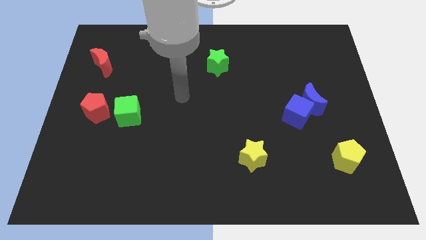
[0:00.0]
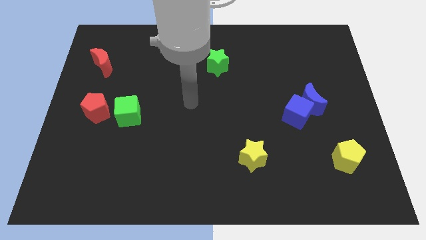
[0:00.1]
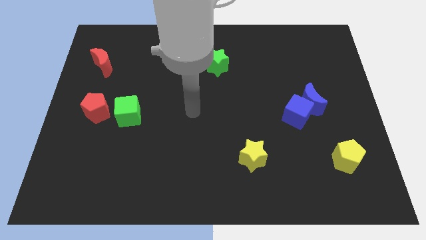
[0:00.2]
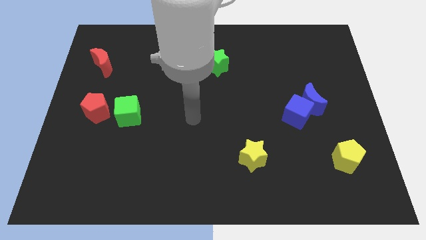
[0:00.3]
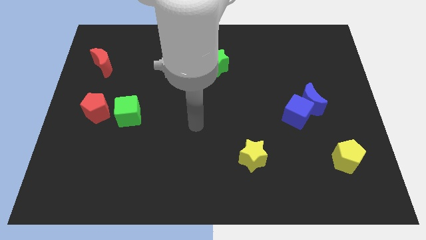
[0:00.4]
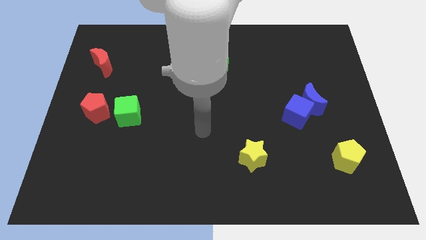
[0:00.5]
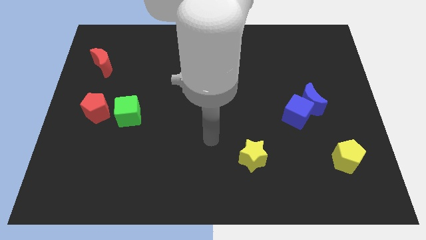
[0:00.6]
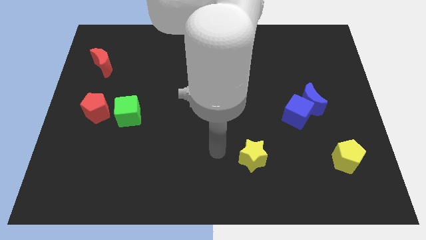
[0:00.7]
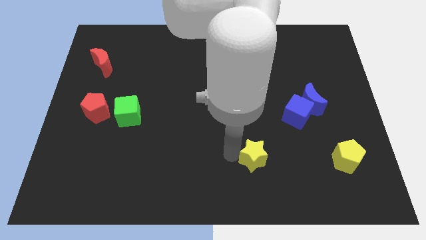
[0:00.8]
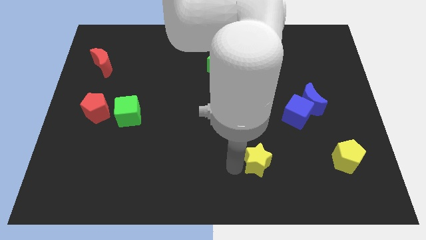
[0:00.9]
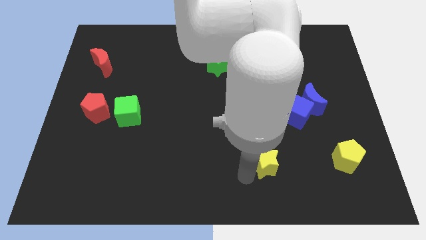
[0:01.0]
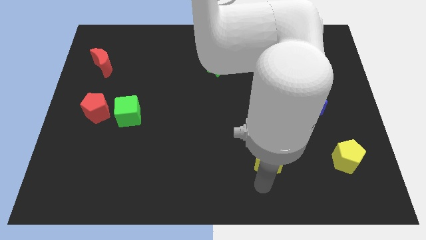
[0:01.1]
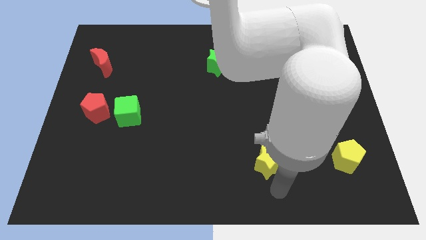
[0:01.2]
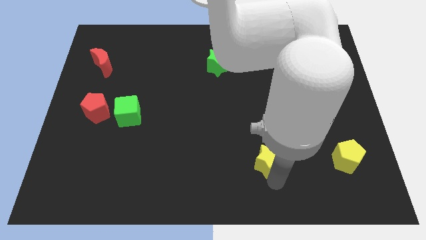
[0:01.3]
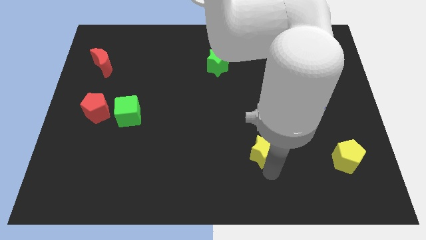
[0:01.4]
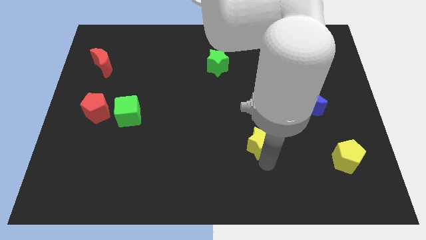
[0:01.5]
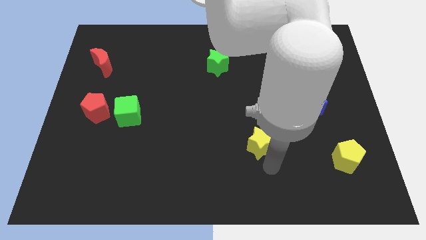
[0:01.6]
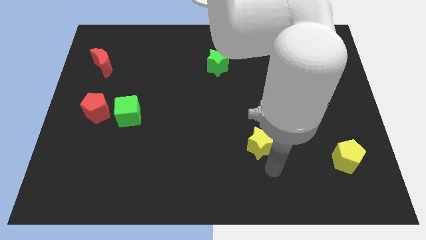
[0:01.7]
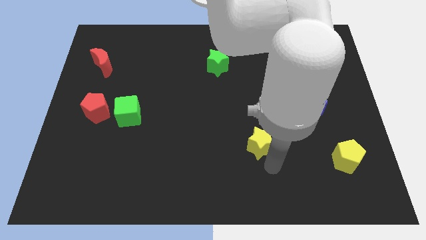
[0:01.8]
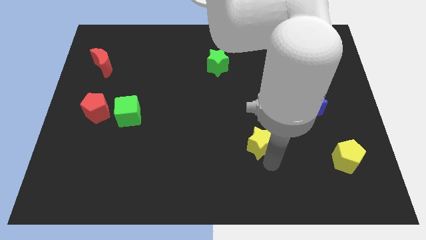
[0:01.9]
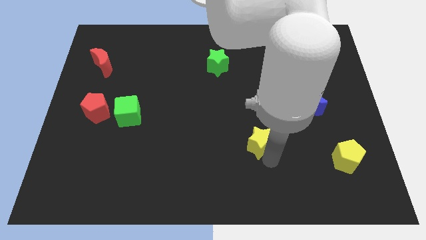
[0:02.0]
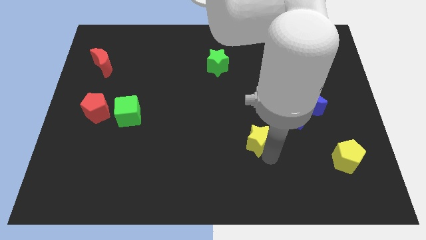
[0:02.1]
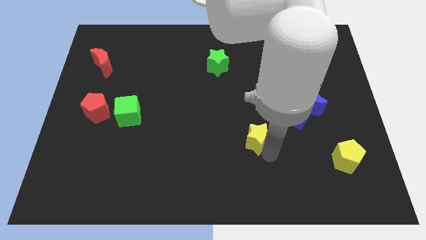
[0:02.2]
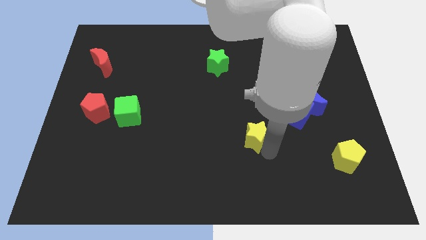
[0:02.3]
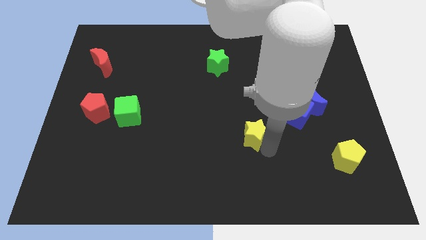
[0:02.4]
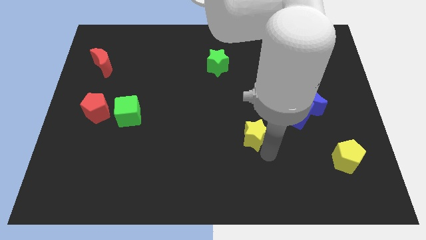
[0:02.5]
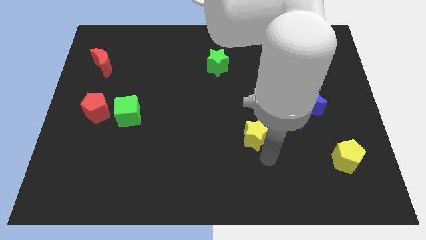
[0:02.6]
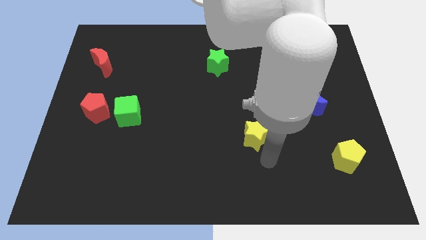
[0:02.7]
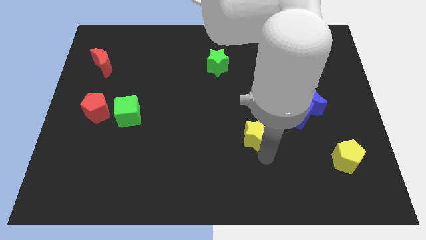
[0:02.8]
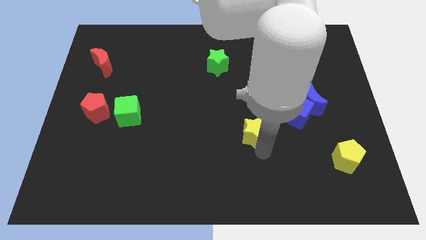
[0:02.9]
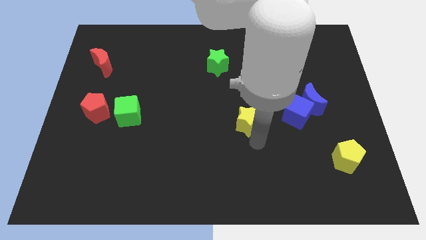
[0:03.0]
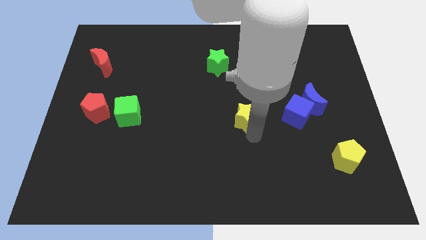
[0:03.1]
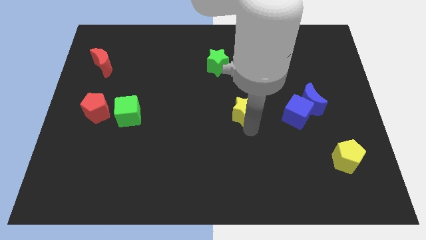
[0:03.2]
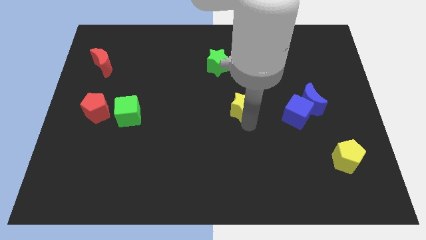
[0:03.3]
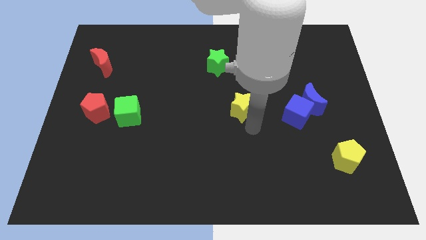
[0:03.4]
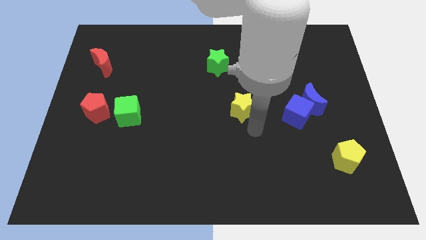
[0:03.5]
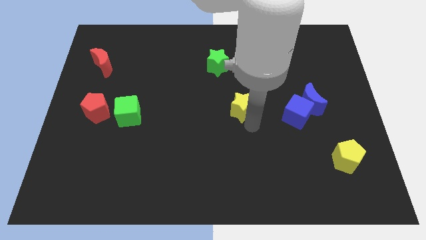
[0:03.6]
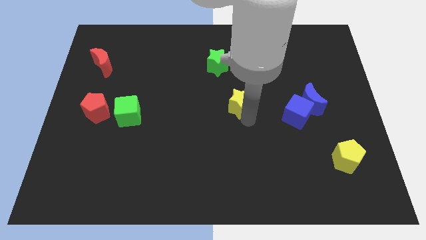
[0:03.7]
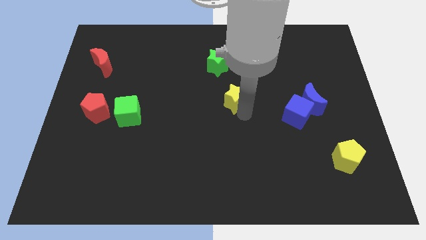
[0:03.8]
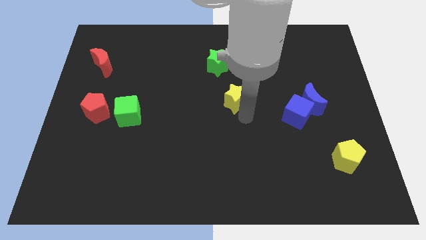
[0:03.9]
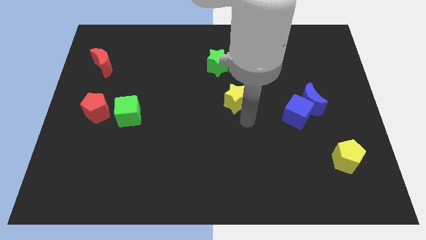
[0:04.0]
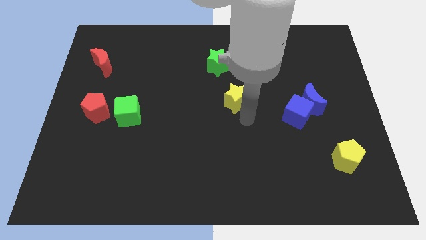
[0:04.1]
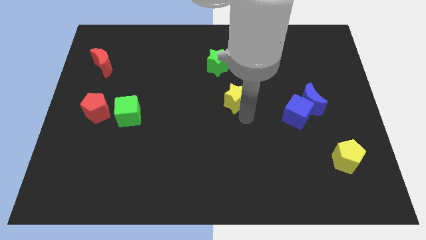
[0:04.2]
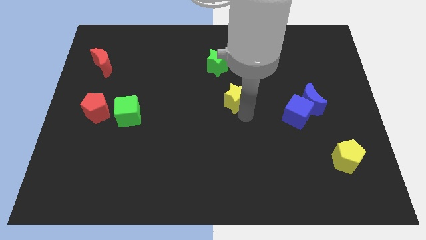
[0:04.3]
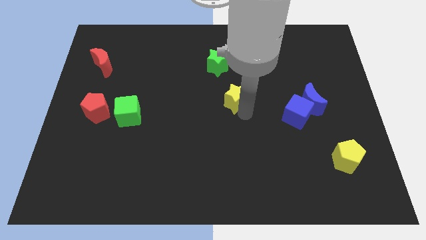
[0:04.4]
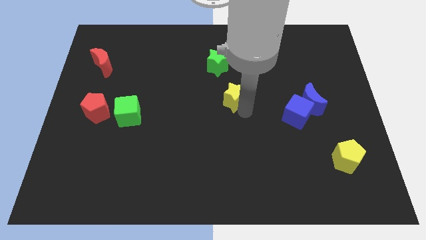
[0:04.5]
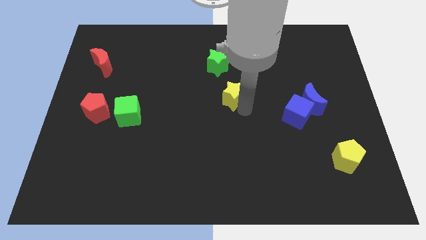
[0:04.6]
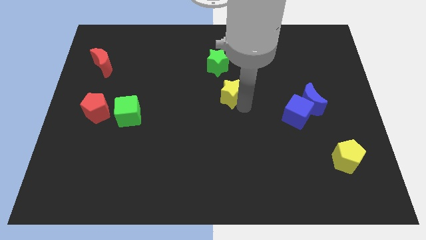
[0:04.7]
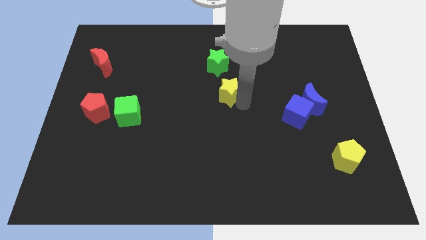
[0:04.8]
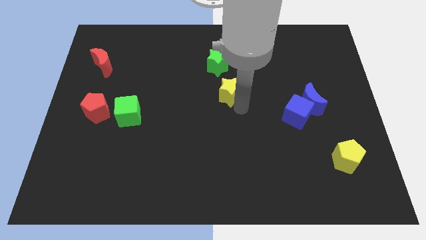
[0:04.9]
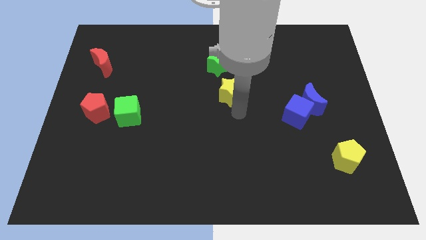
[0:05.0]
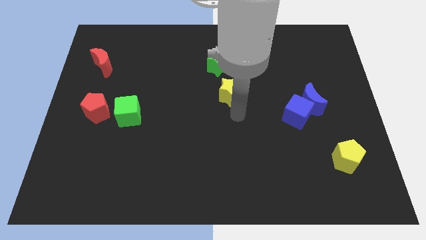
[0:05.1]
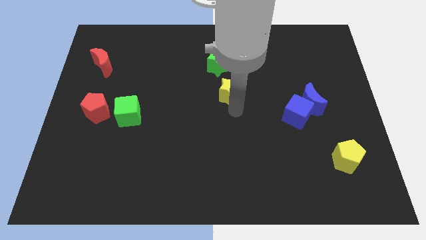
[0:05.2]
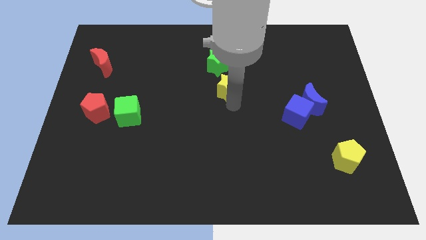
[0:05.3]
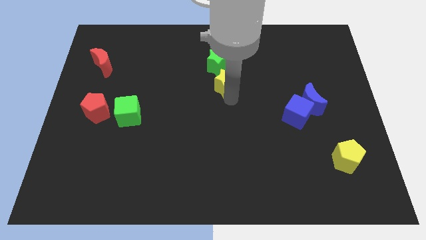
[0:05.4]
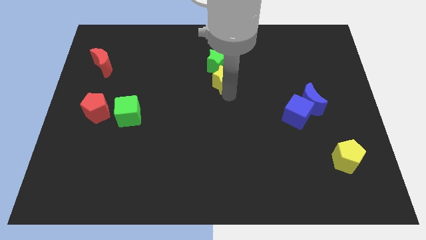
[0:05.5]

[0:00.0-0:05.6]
slide the yellow star to the green star

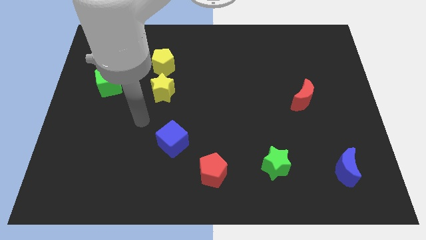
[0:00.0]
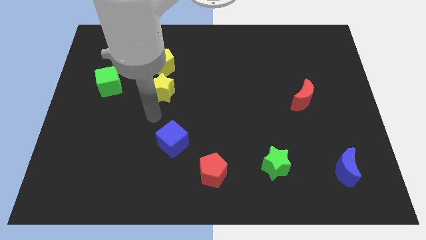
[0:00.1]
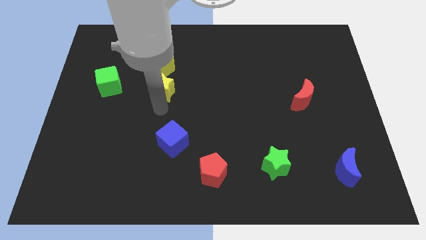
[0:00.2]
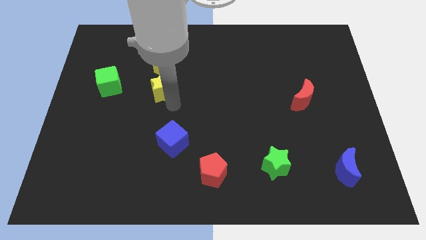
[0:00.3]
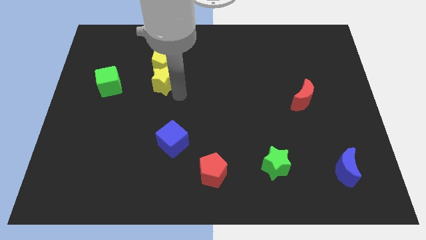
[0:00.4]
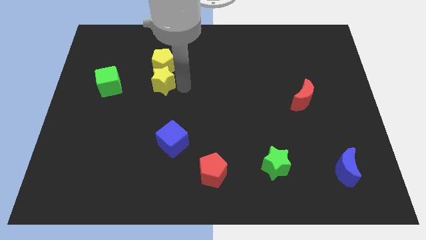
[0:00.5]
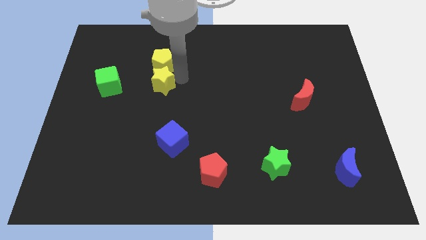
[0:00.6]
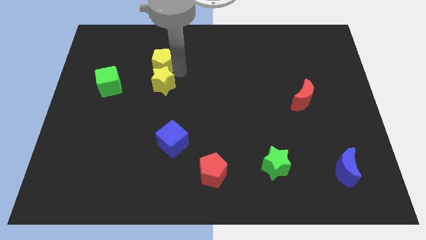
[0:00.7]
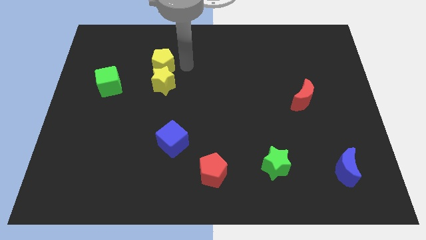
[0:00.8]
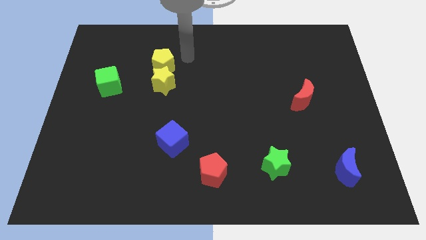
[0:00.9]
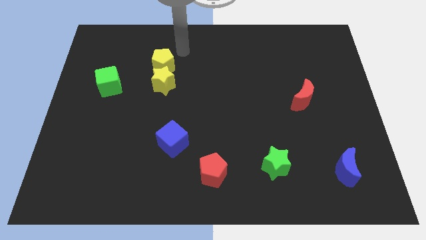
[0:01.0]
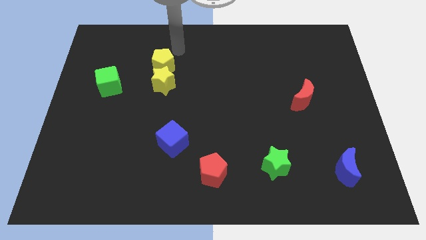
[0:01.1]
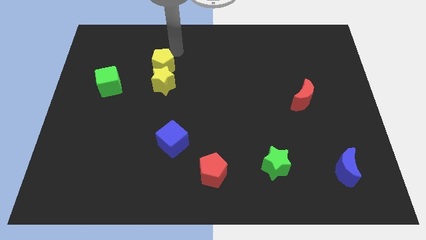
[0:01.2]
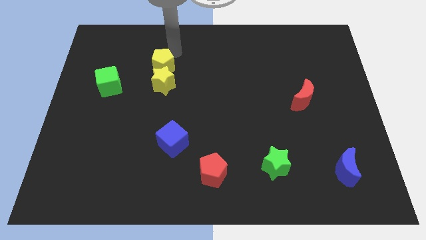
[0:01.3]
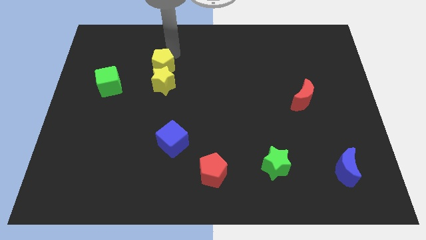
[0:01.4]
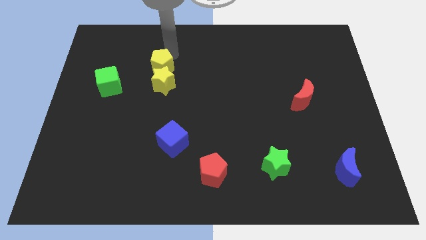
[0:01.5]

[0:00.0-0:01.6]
push the yellow pentagon next to the yellow star
